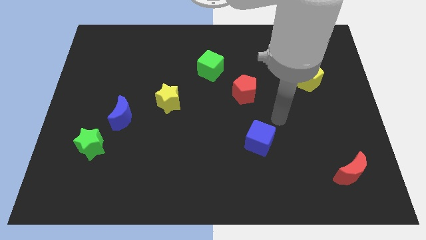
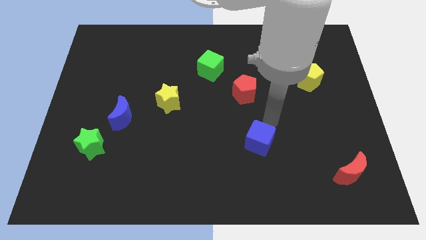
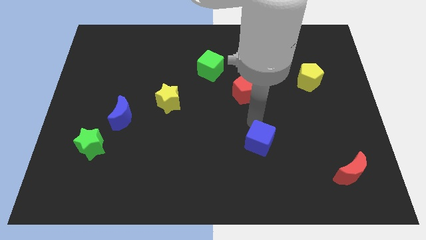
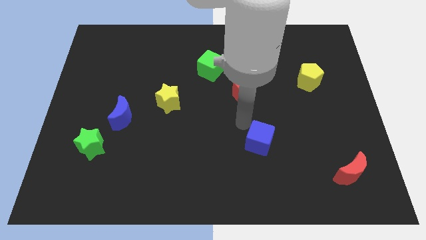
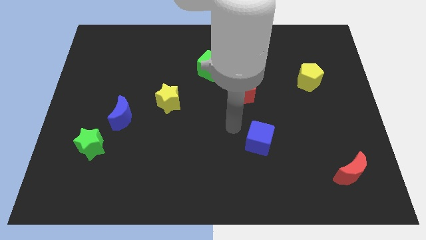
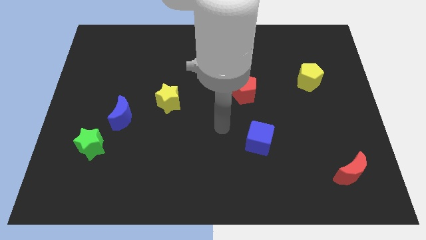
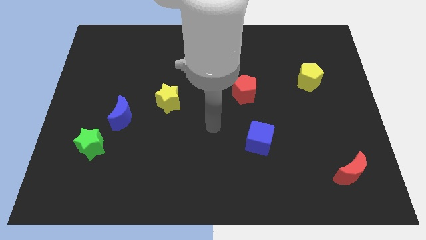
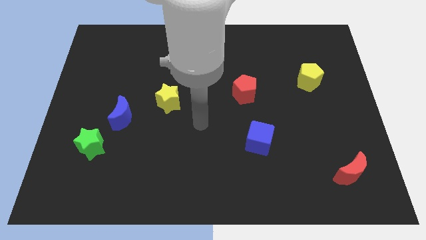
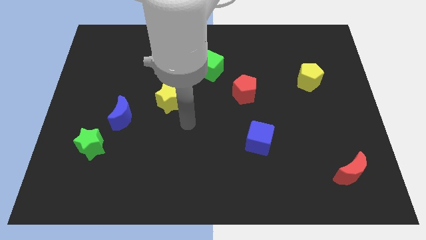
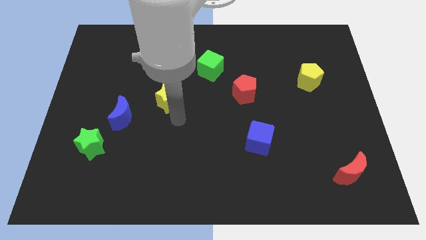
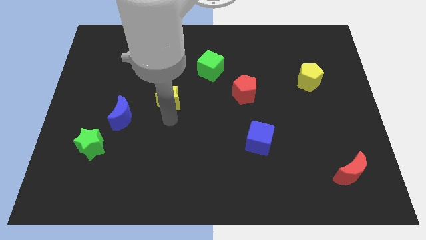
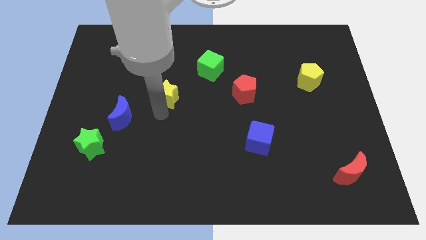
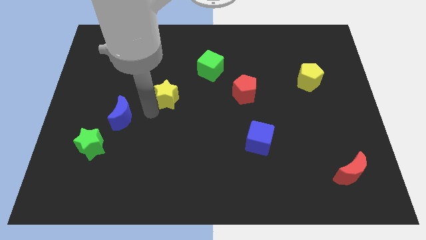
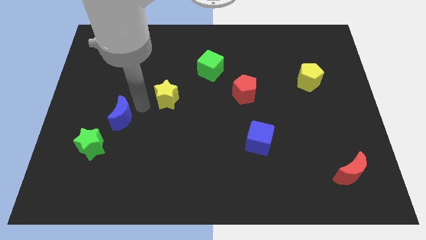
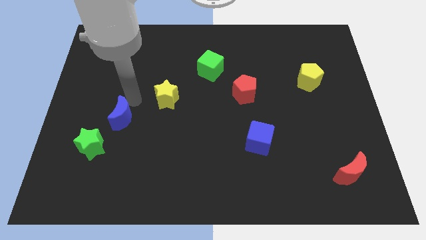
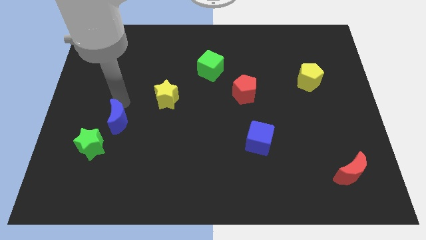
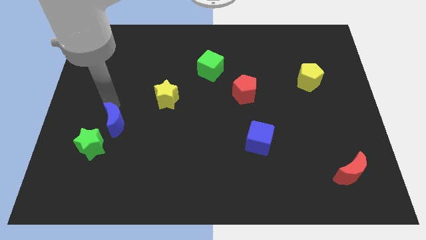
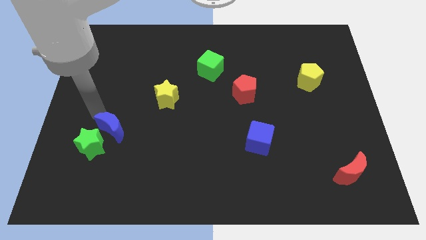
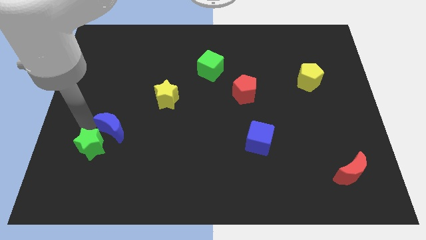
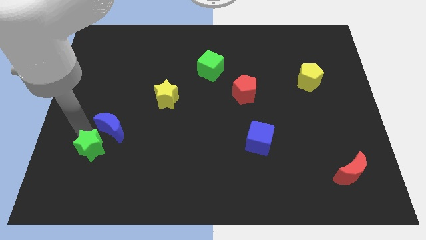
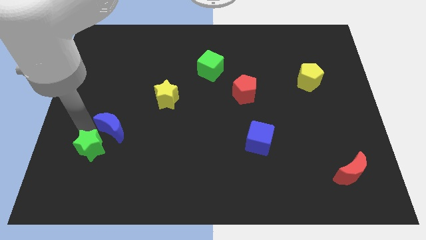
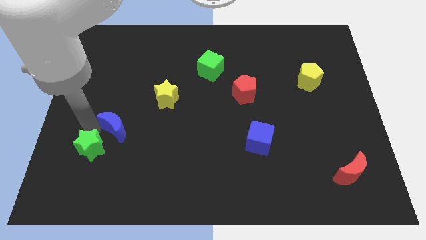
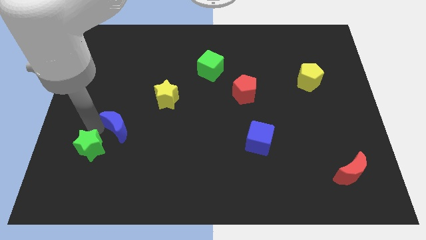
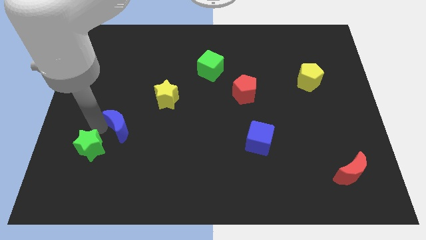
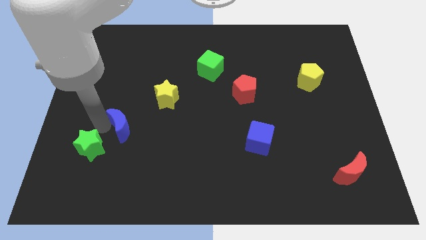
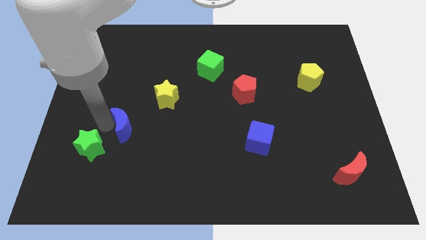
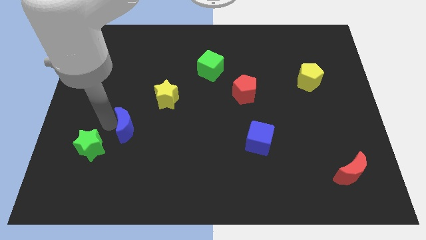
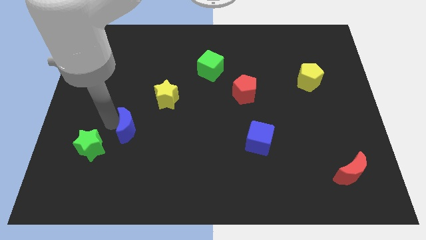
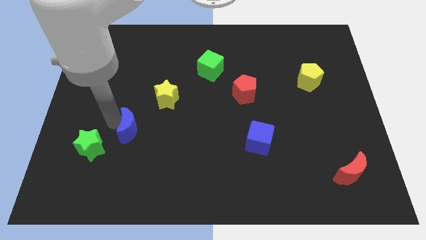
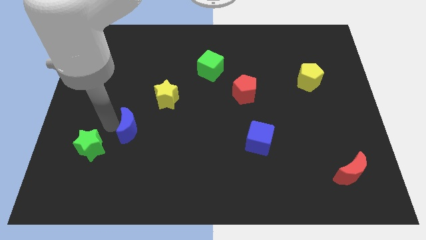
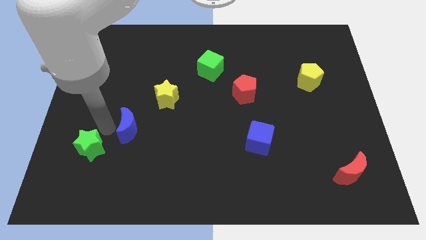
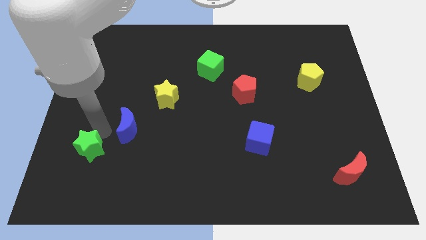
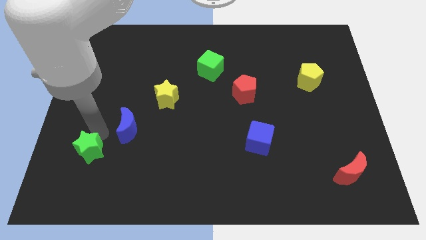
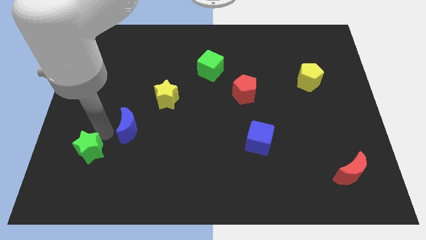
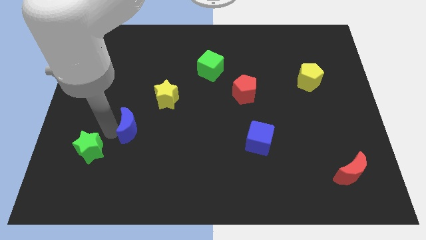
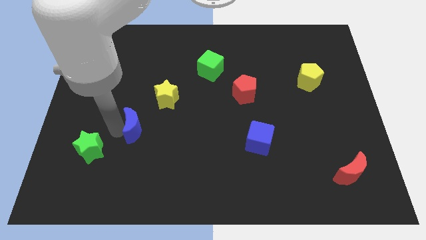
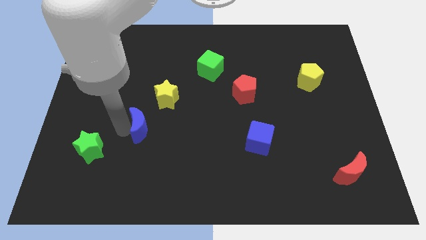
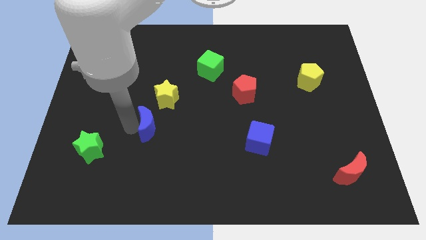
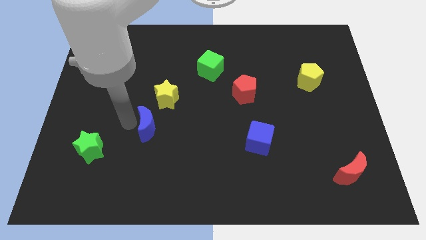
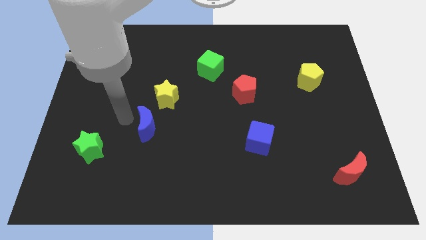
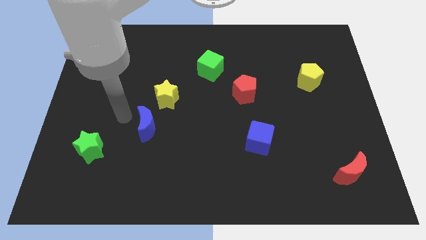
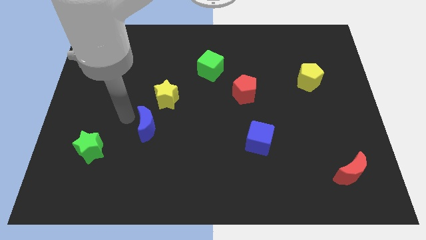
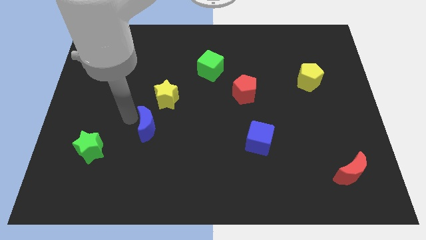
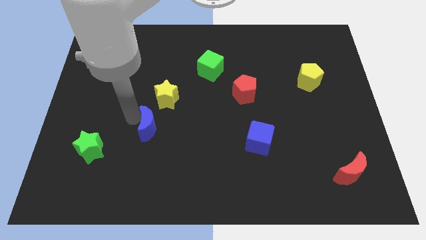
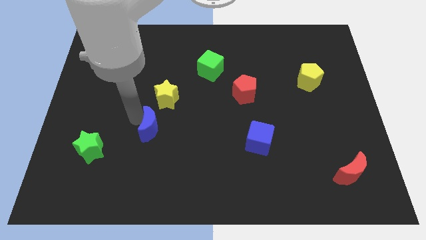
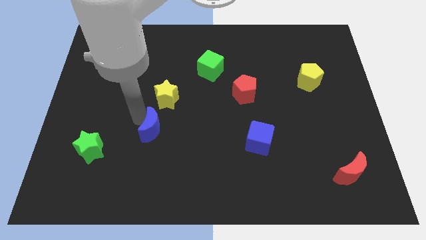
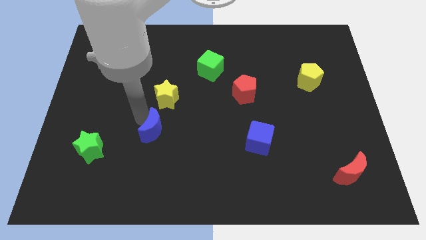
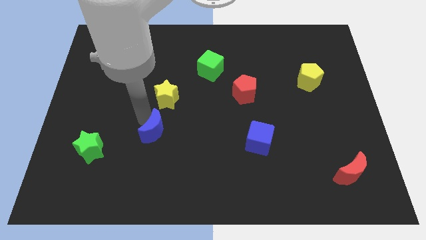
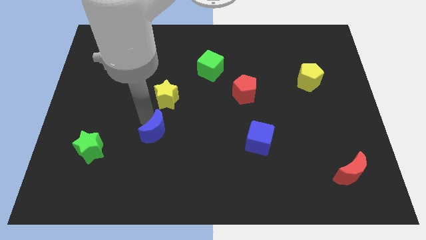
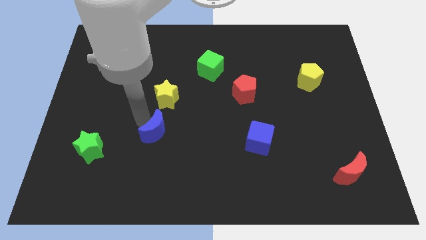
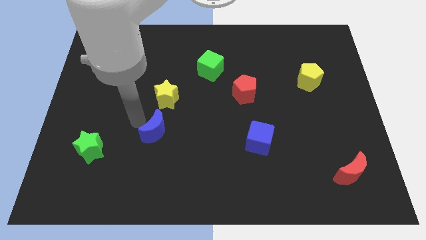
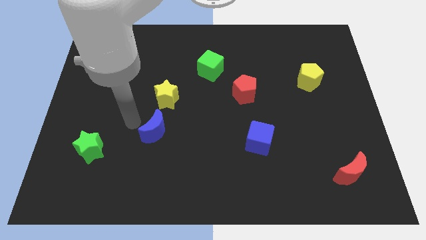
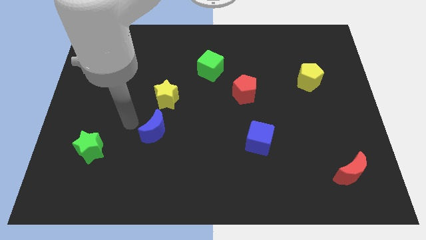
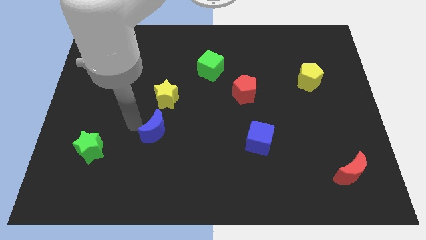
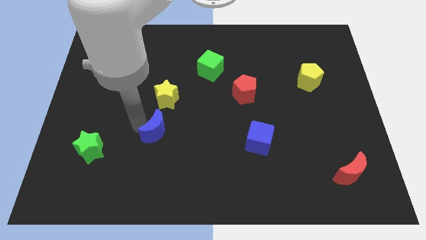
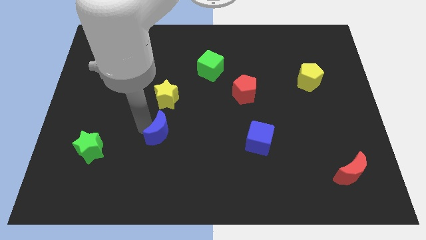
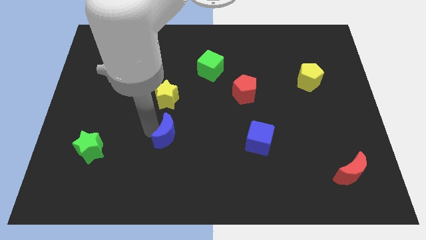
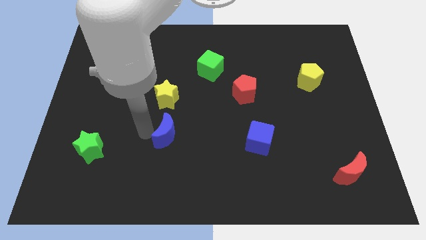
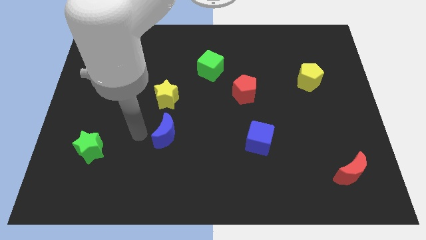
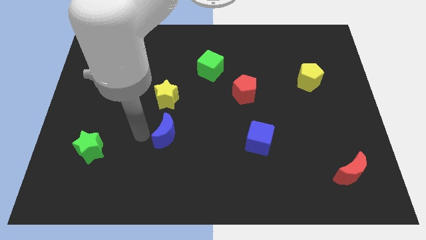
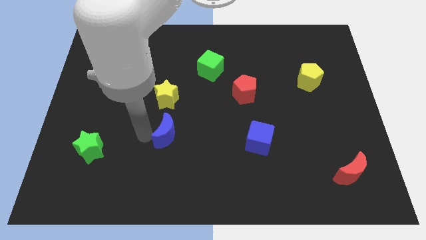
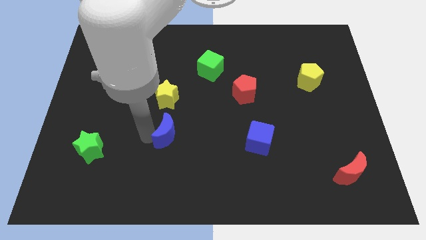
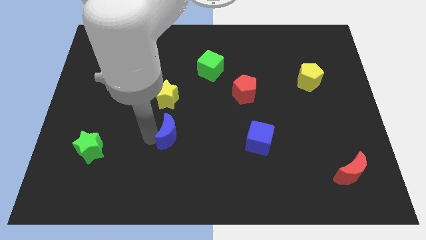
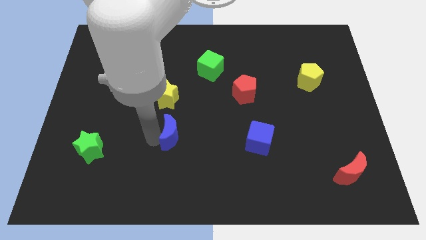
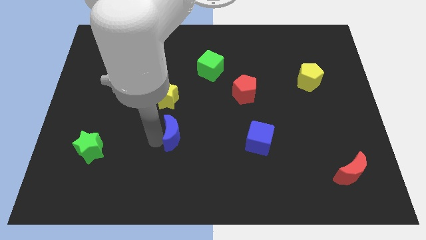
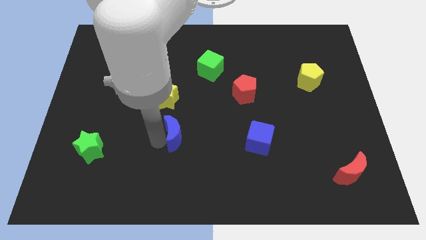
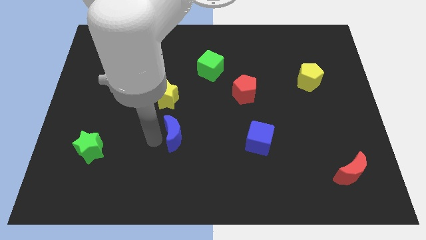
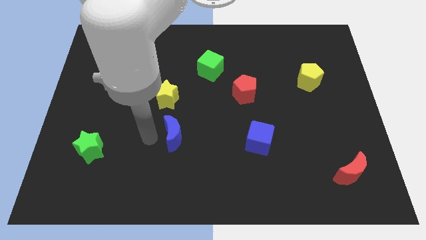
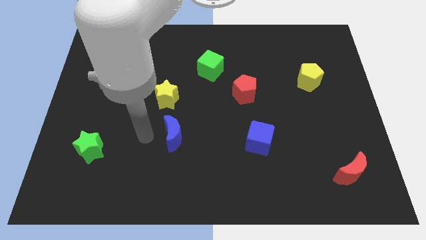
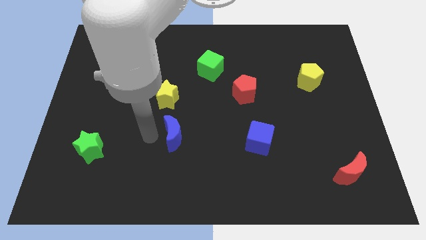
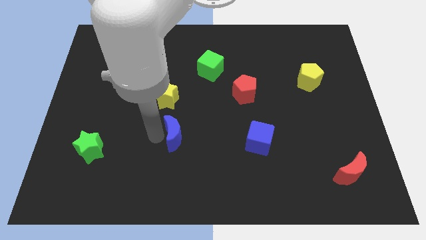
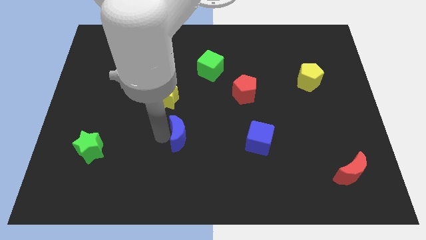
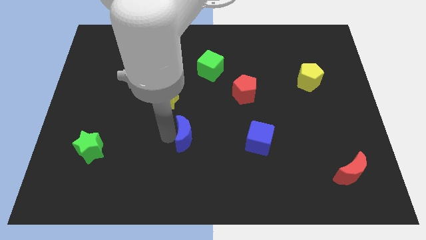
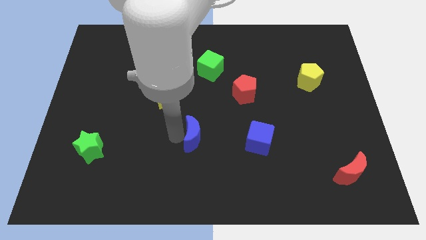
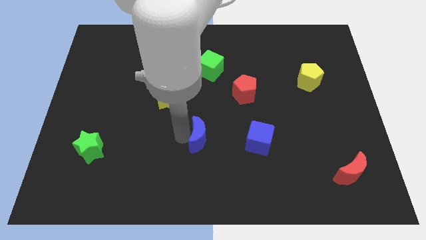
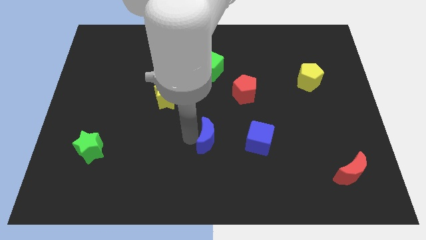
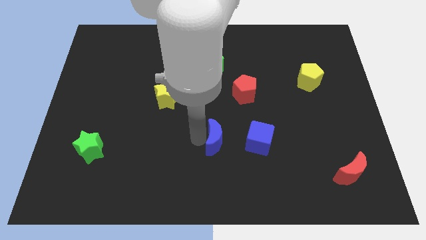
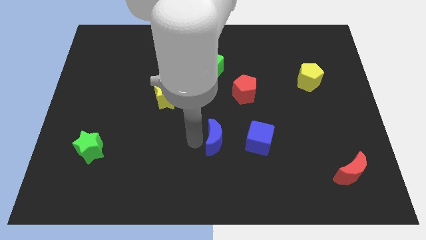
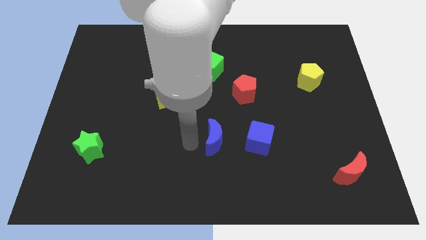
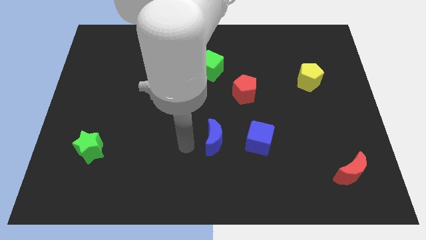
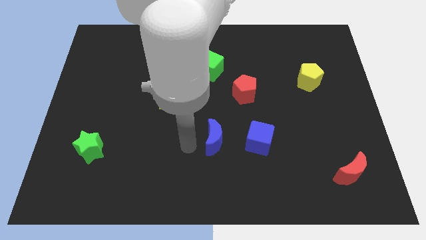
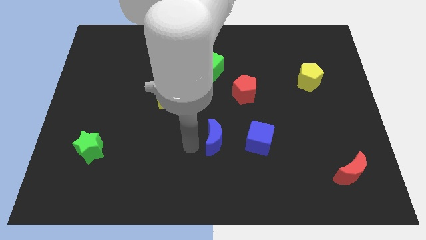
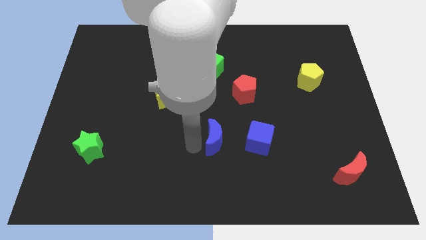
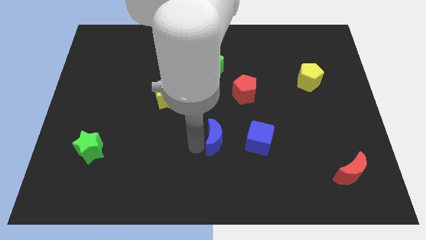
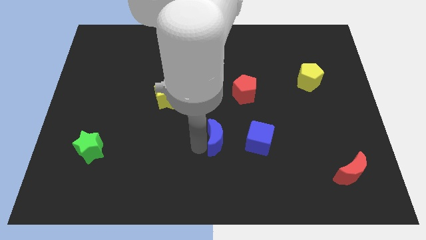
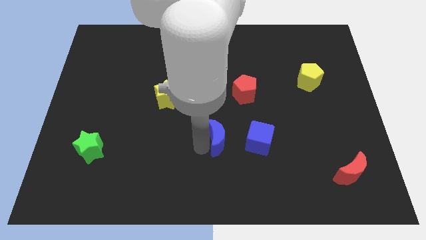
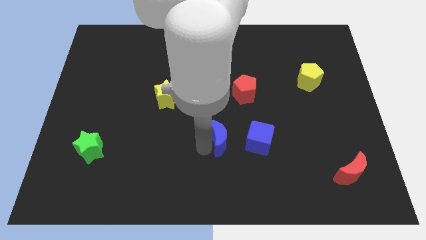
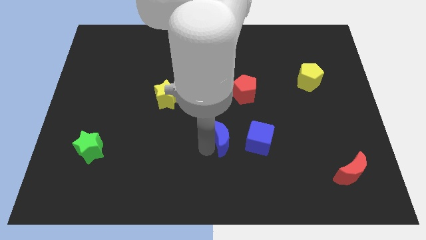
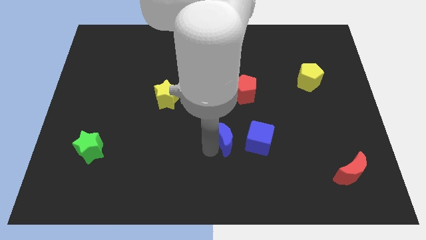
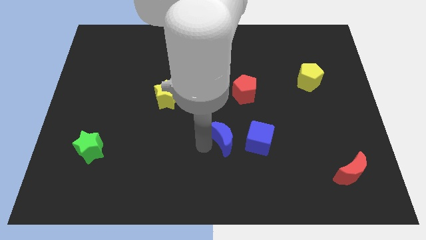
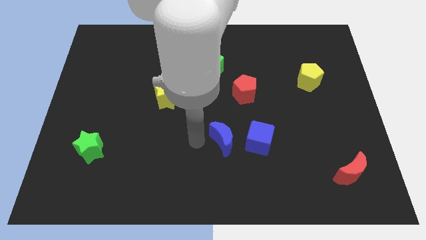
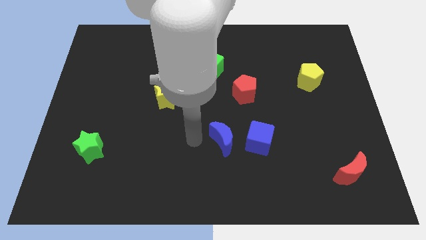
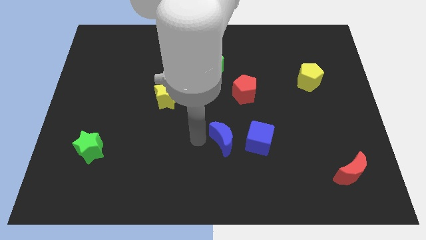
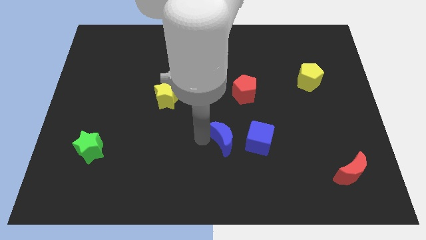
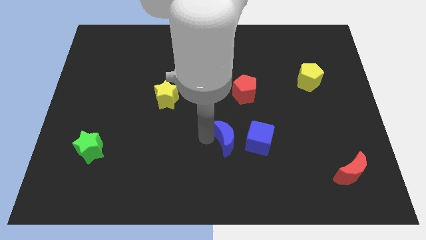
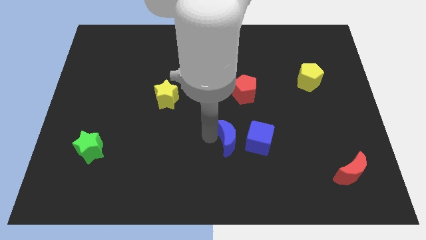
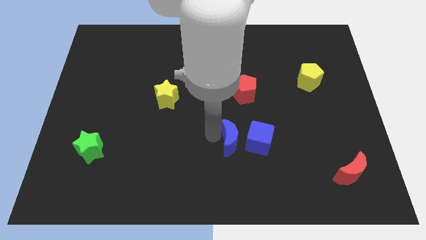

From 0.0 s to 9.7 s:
slide the blue moon towards the blue cube
